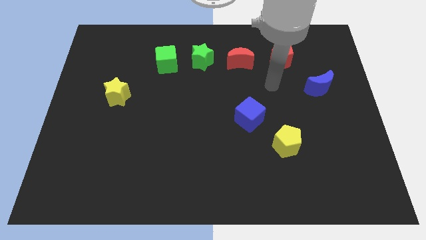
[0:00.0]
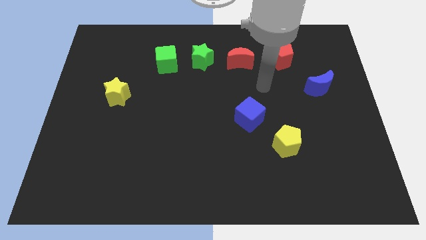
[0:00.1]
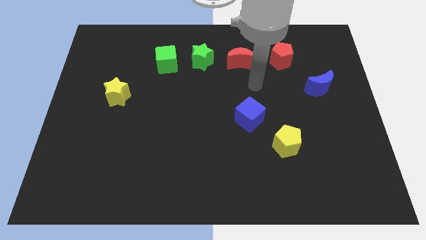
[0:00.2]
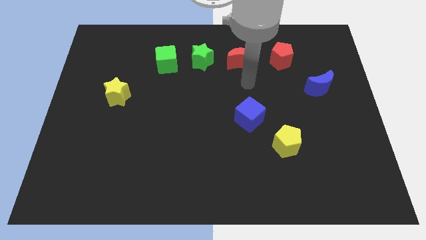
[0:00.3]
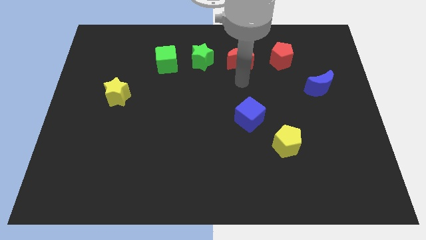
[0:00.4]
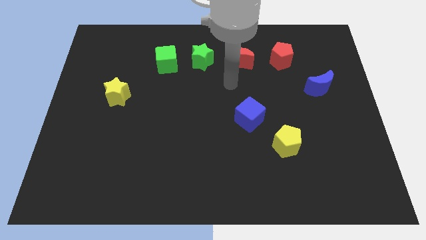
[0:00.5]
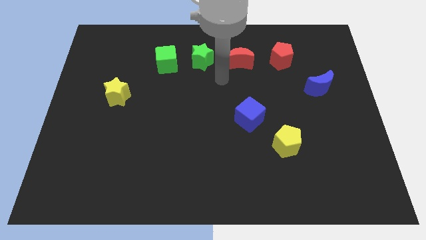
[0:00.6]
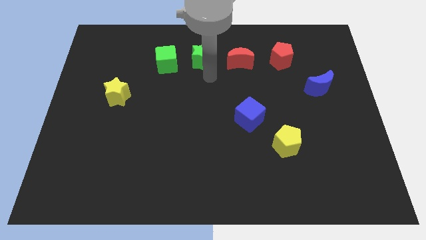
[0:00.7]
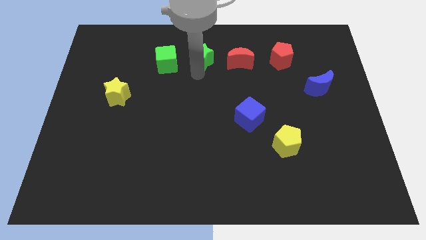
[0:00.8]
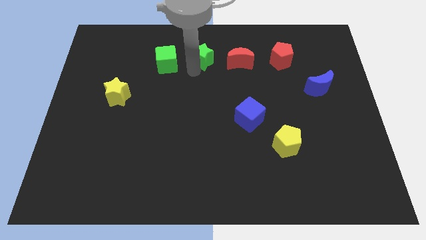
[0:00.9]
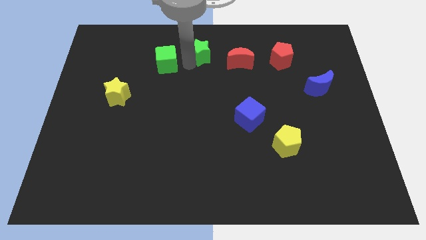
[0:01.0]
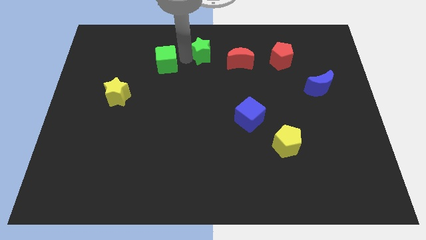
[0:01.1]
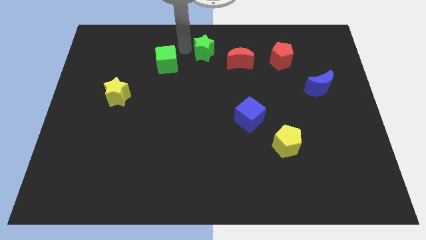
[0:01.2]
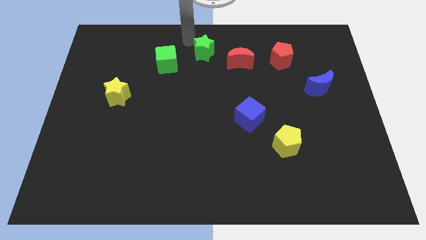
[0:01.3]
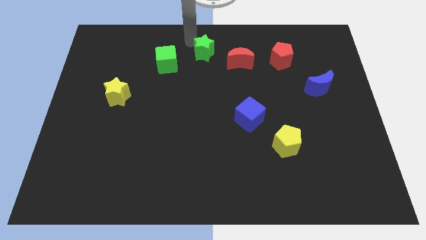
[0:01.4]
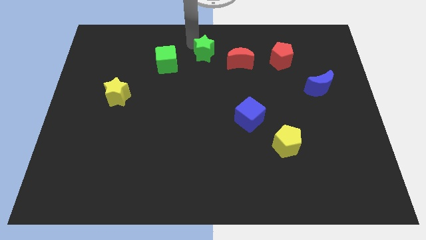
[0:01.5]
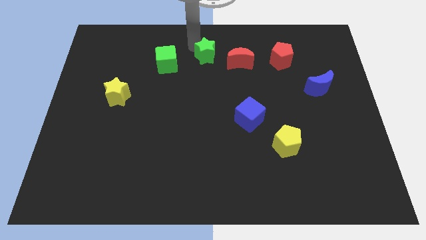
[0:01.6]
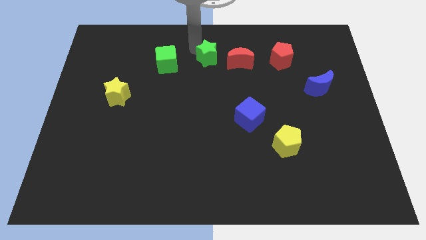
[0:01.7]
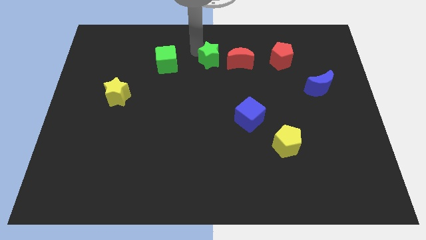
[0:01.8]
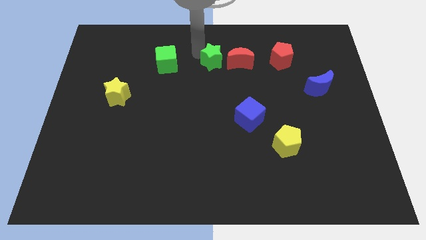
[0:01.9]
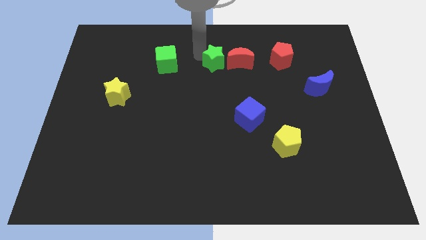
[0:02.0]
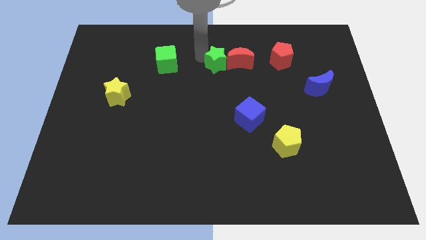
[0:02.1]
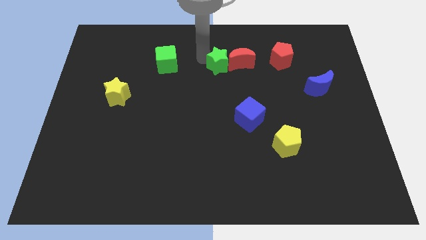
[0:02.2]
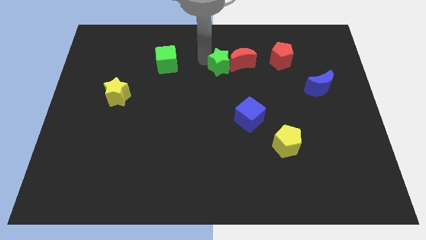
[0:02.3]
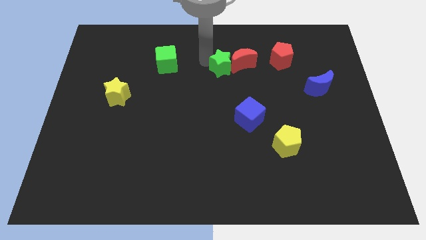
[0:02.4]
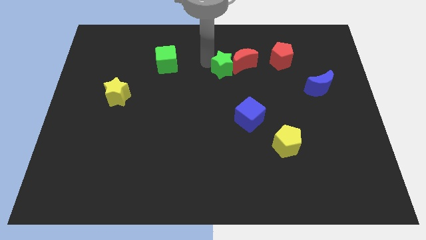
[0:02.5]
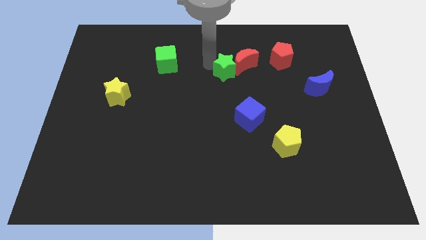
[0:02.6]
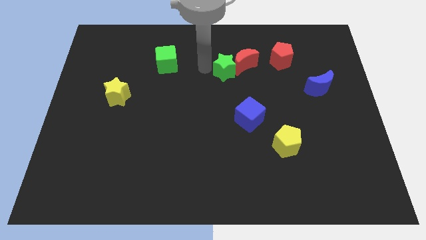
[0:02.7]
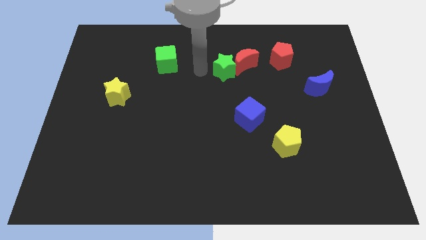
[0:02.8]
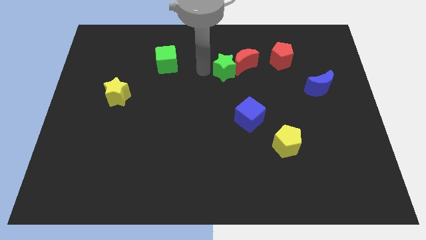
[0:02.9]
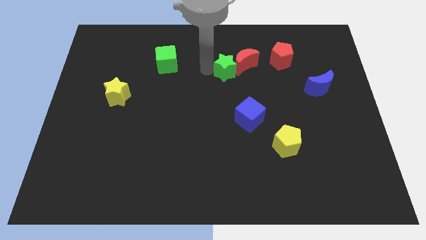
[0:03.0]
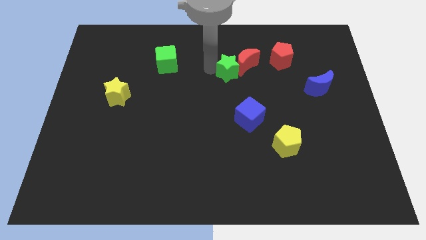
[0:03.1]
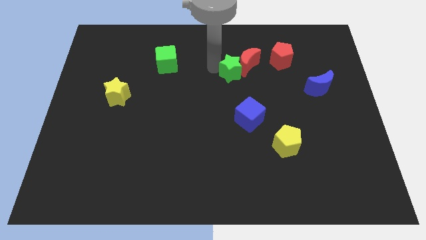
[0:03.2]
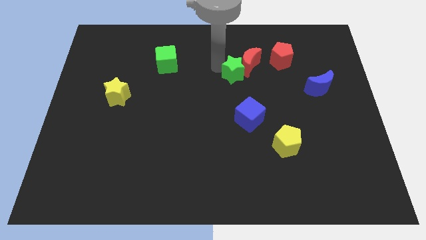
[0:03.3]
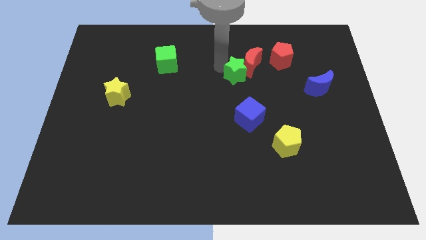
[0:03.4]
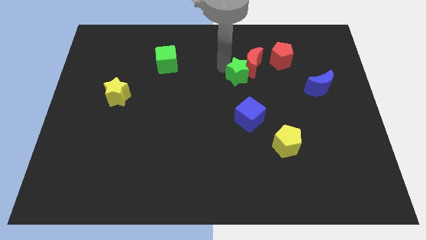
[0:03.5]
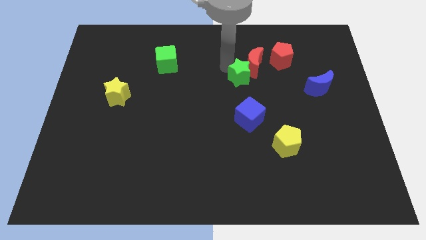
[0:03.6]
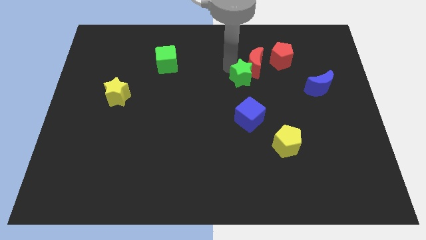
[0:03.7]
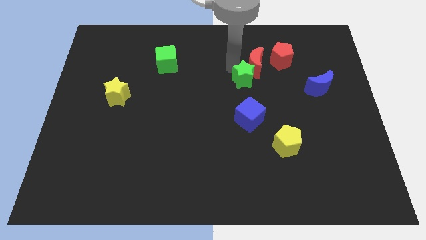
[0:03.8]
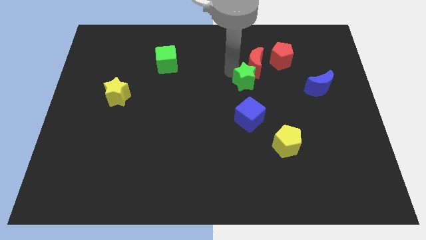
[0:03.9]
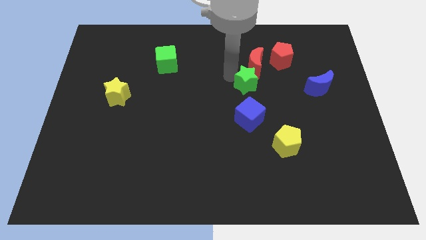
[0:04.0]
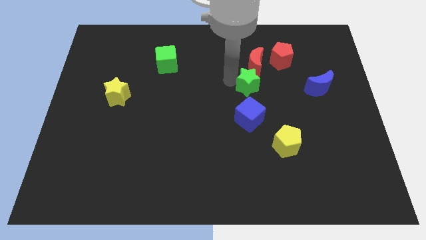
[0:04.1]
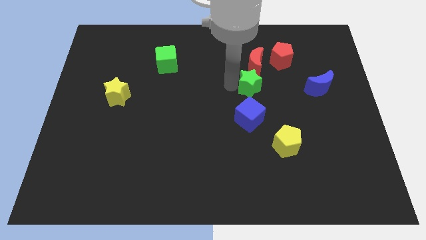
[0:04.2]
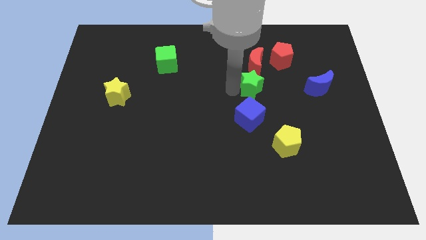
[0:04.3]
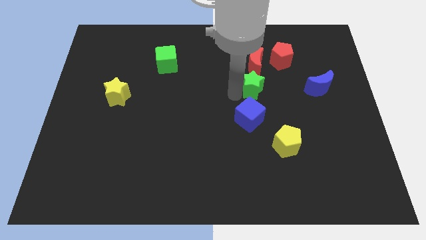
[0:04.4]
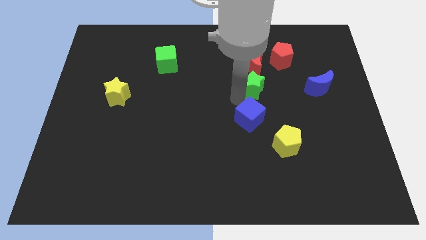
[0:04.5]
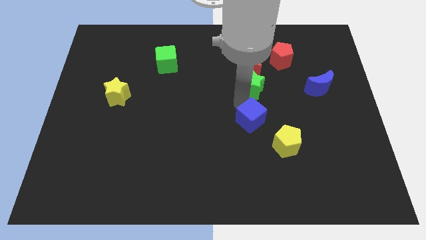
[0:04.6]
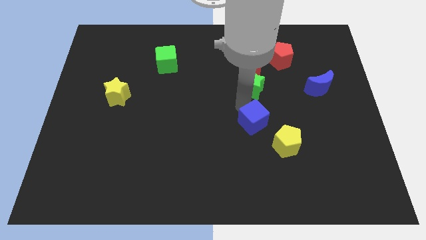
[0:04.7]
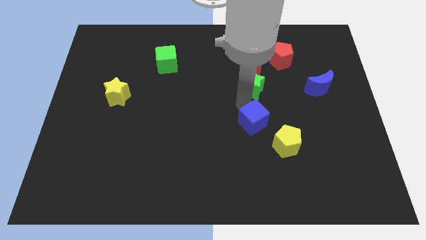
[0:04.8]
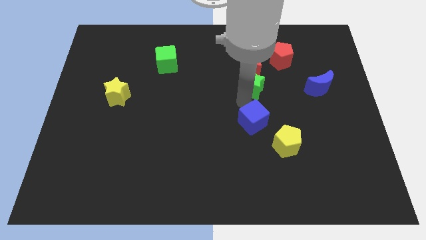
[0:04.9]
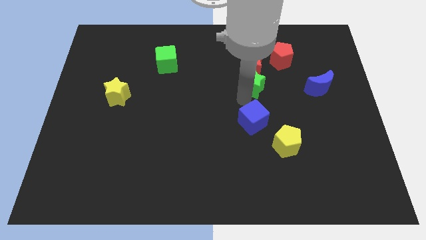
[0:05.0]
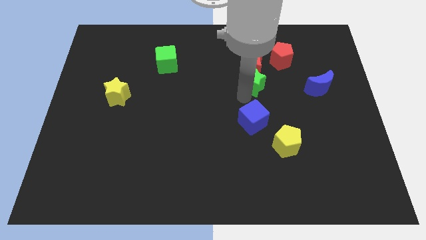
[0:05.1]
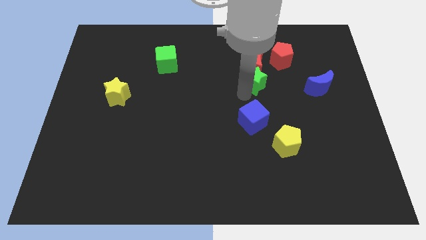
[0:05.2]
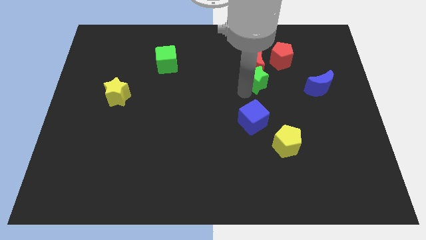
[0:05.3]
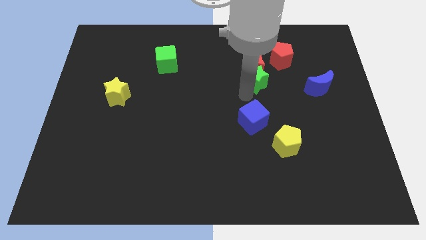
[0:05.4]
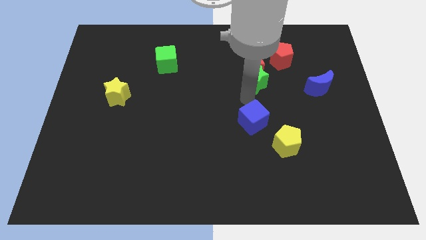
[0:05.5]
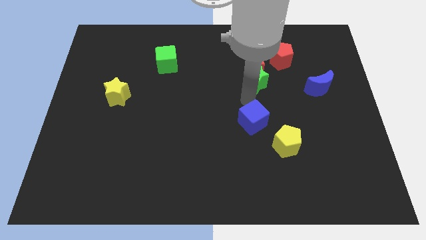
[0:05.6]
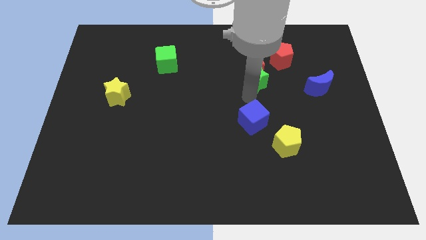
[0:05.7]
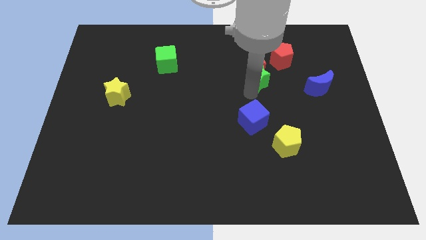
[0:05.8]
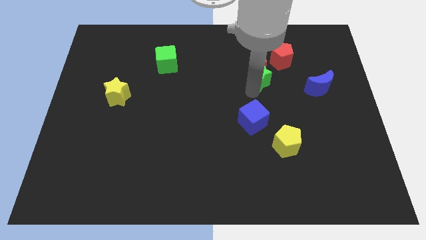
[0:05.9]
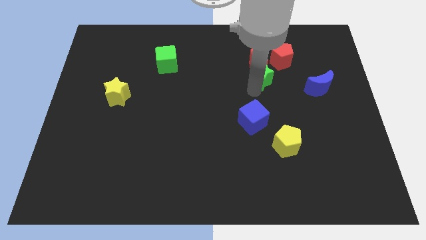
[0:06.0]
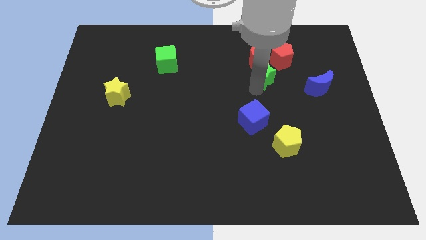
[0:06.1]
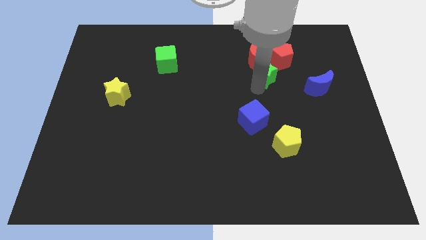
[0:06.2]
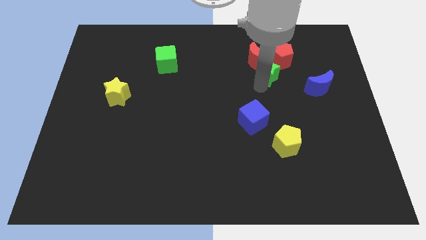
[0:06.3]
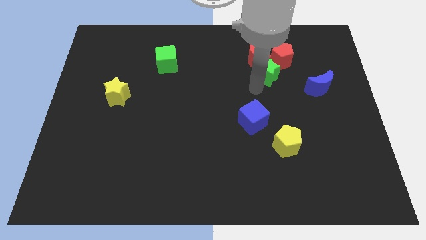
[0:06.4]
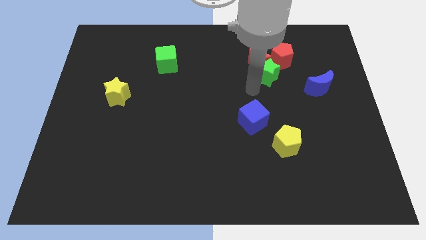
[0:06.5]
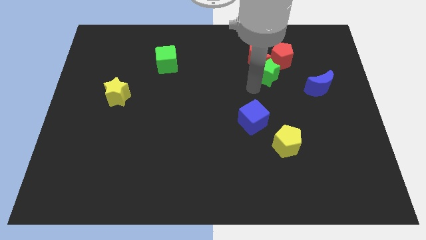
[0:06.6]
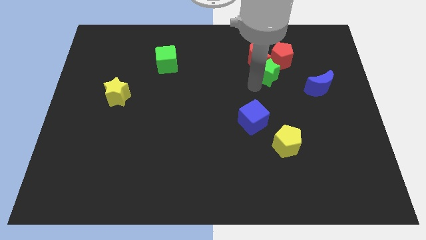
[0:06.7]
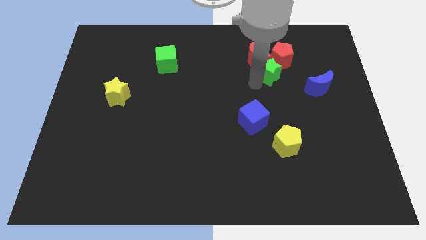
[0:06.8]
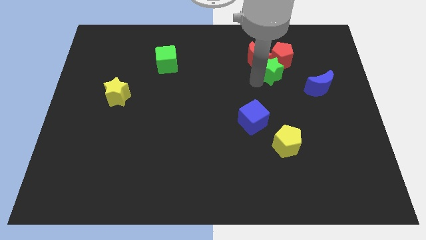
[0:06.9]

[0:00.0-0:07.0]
push the green star next to the red pentagon

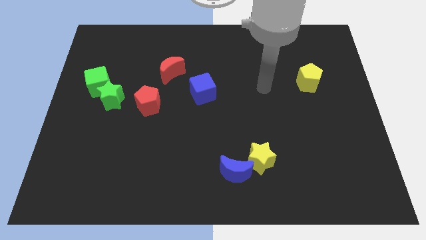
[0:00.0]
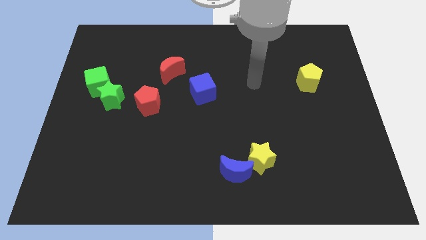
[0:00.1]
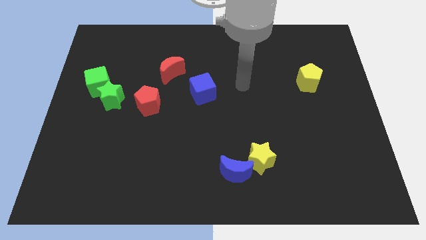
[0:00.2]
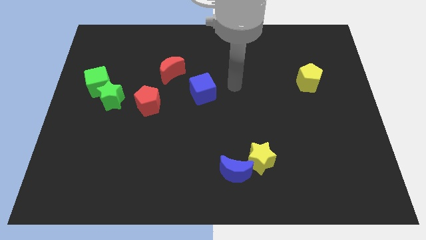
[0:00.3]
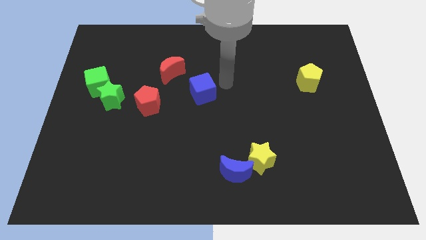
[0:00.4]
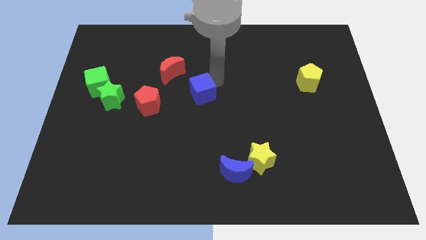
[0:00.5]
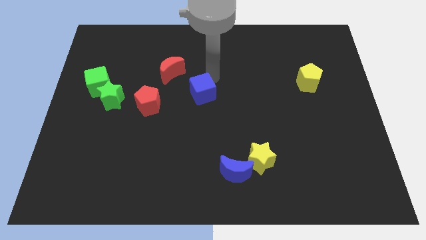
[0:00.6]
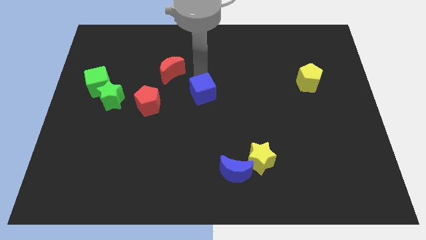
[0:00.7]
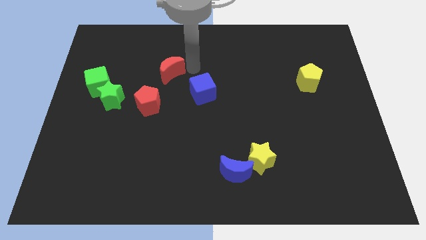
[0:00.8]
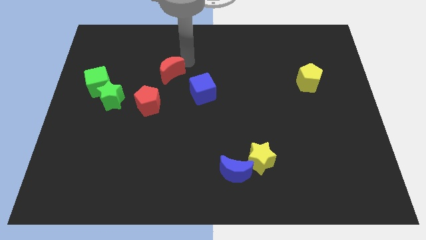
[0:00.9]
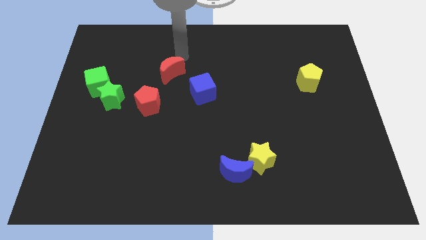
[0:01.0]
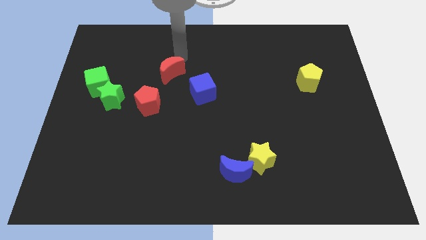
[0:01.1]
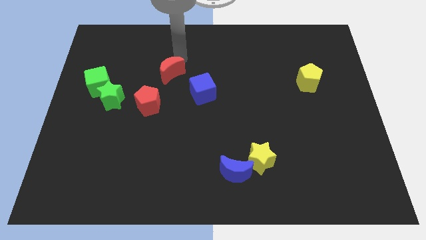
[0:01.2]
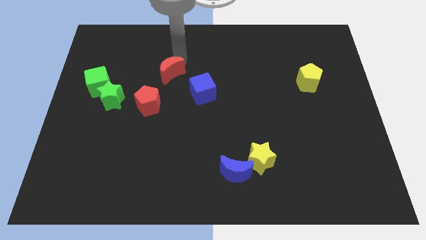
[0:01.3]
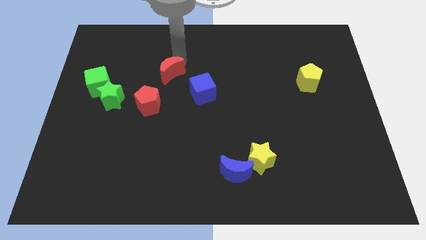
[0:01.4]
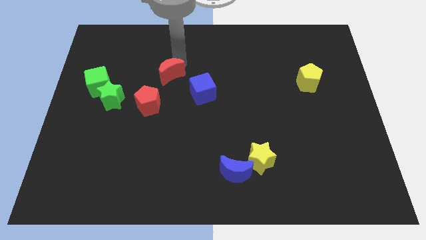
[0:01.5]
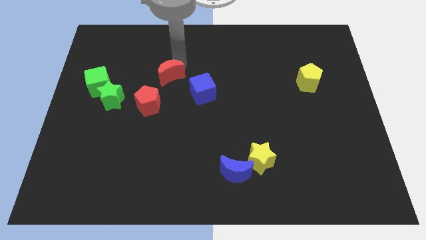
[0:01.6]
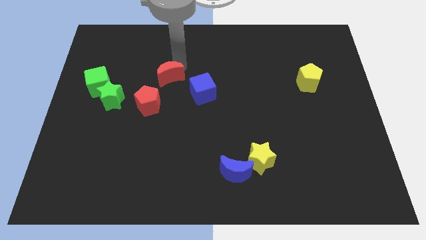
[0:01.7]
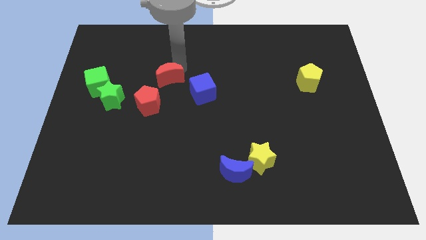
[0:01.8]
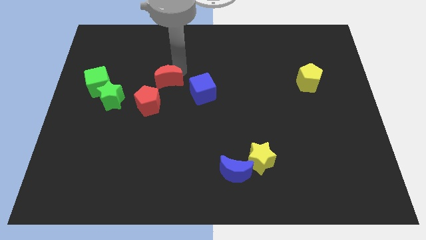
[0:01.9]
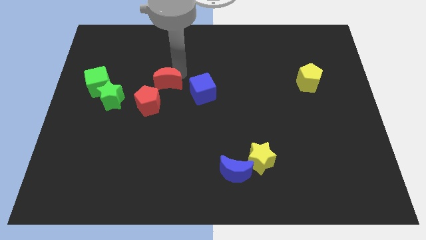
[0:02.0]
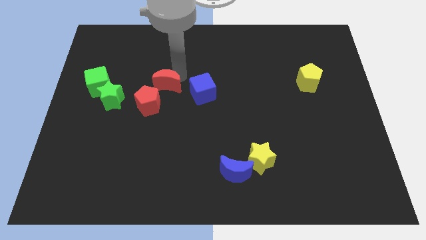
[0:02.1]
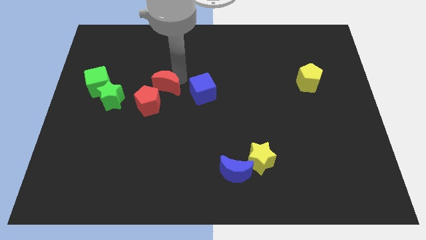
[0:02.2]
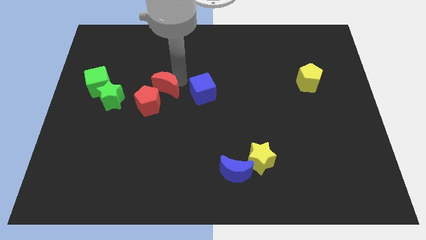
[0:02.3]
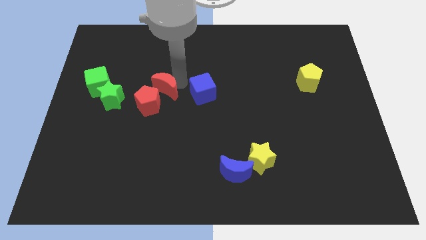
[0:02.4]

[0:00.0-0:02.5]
slide the red moon next to the red pentagon
